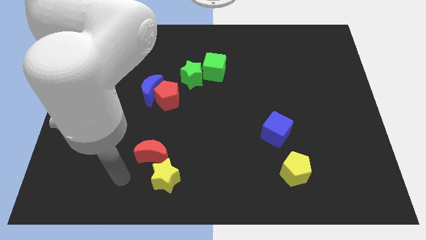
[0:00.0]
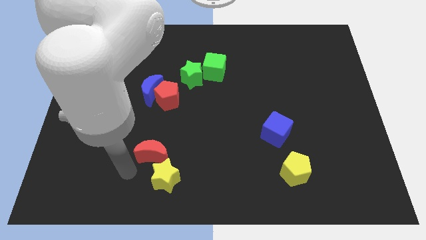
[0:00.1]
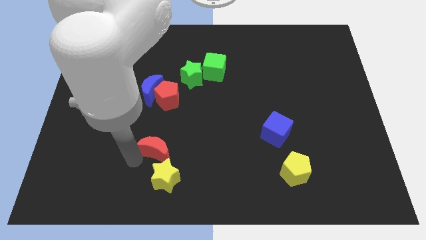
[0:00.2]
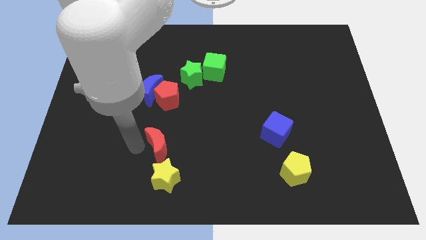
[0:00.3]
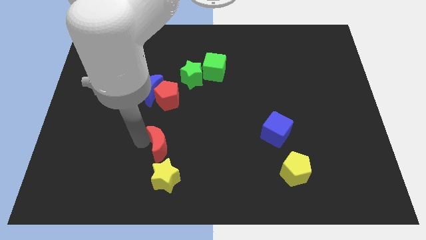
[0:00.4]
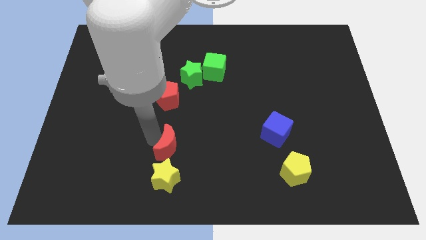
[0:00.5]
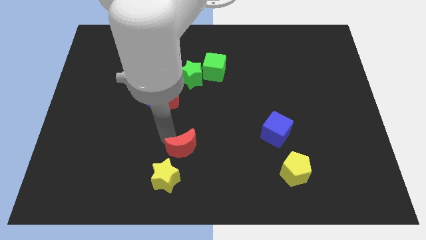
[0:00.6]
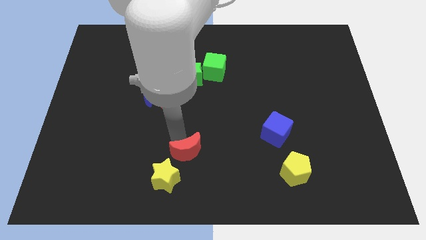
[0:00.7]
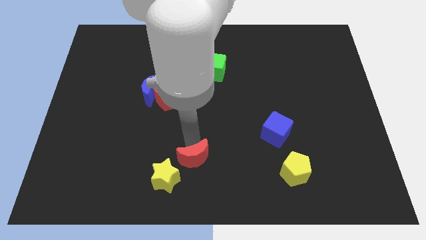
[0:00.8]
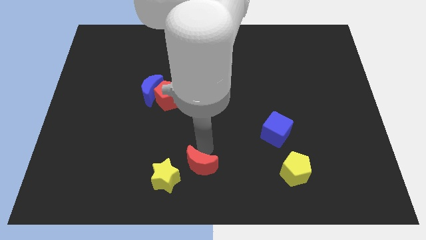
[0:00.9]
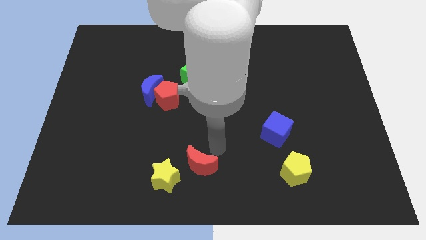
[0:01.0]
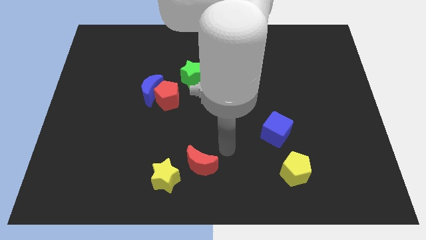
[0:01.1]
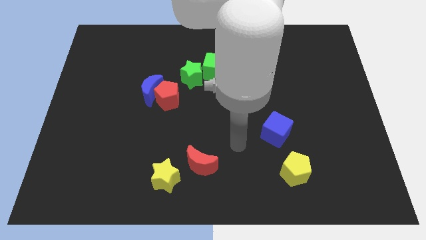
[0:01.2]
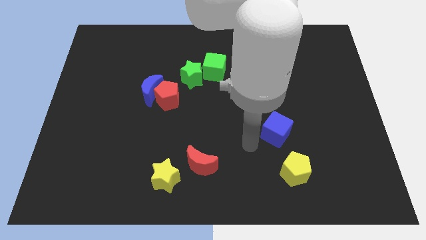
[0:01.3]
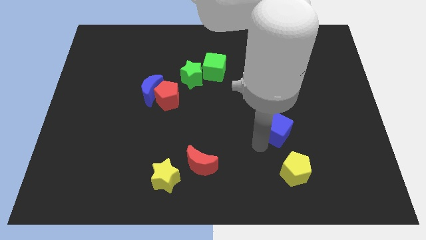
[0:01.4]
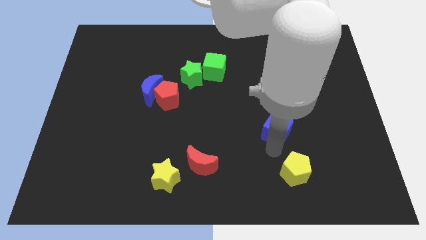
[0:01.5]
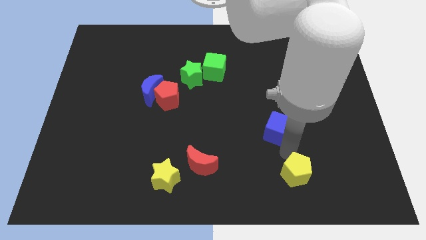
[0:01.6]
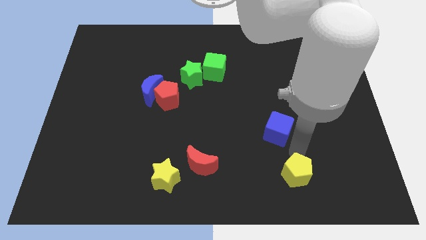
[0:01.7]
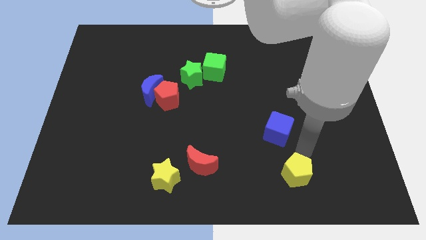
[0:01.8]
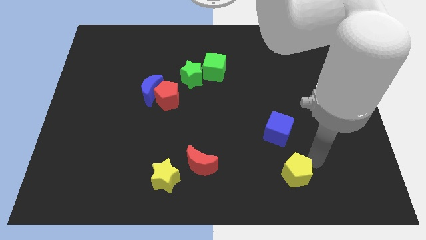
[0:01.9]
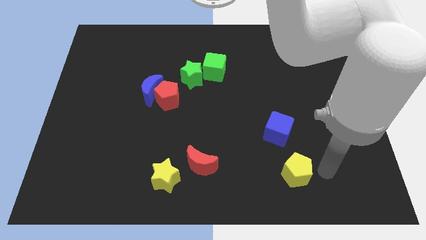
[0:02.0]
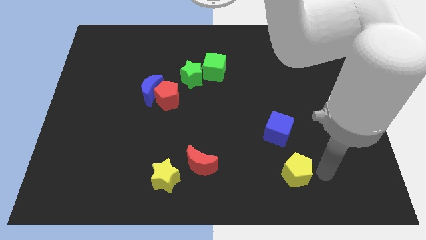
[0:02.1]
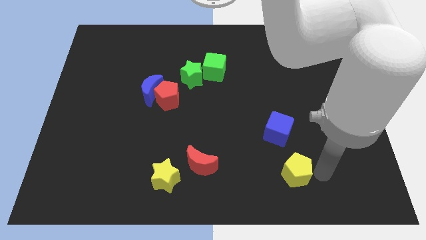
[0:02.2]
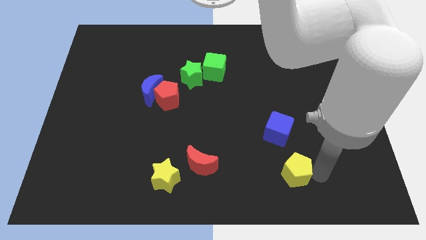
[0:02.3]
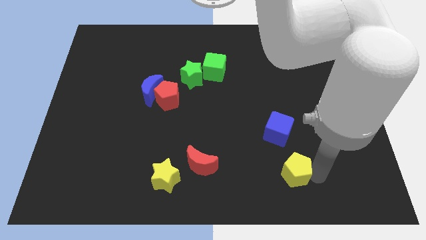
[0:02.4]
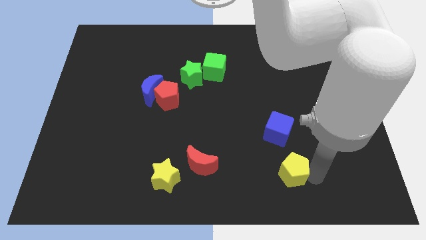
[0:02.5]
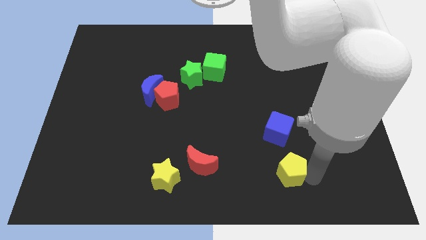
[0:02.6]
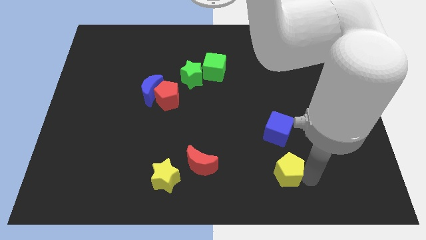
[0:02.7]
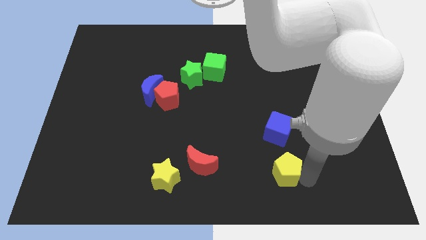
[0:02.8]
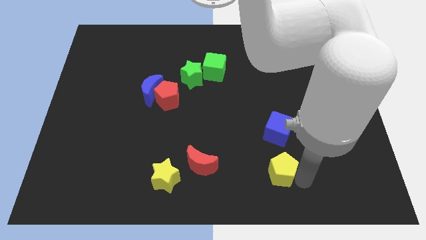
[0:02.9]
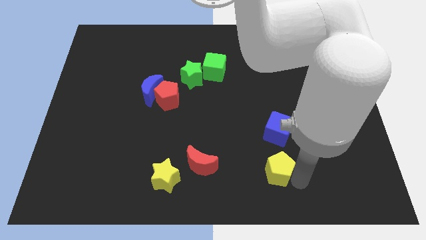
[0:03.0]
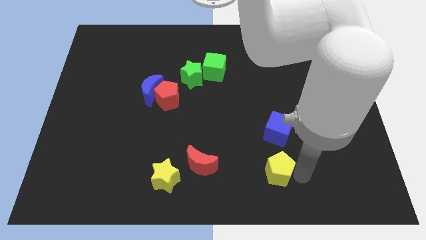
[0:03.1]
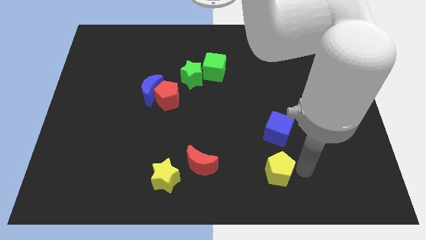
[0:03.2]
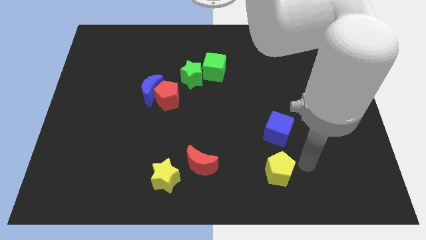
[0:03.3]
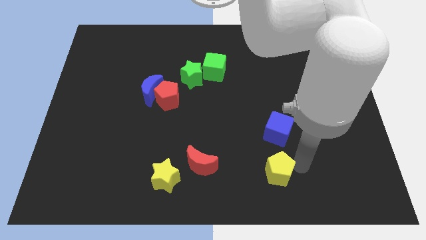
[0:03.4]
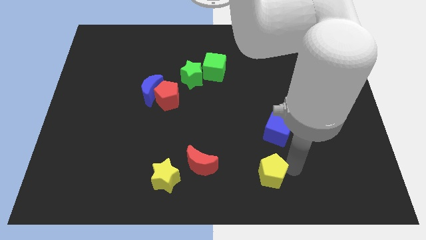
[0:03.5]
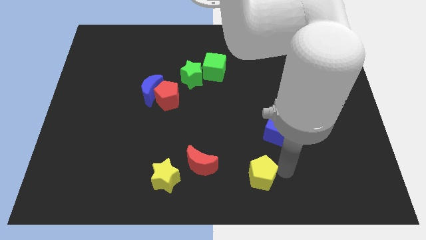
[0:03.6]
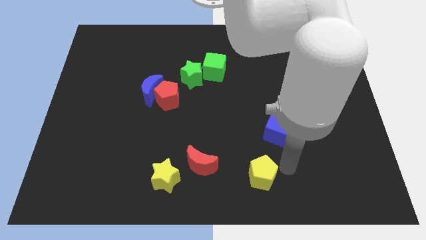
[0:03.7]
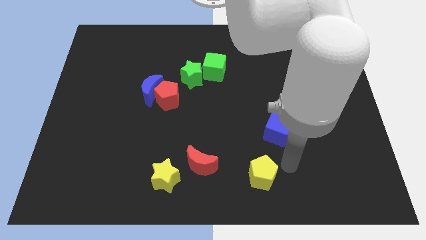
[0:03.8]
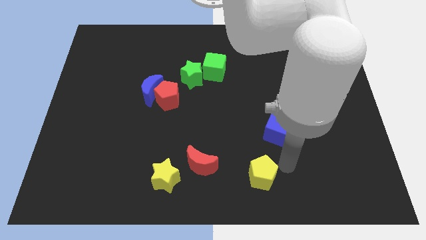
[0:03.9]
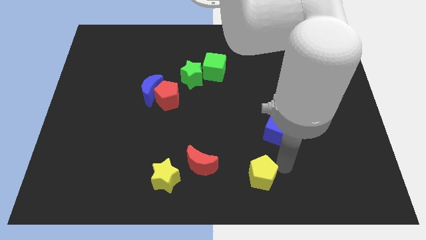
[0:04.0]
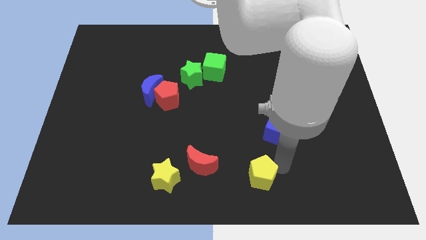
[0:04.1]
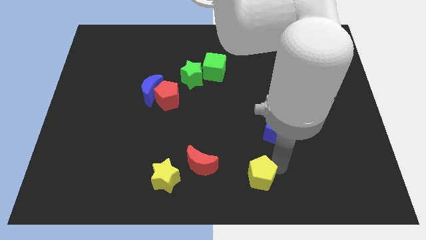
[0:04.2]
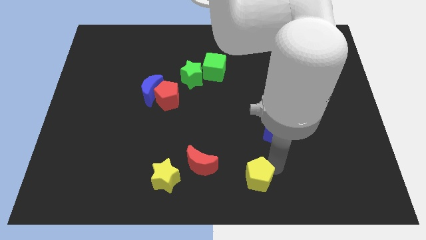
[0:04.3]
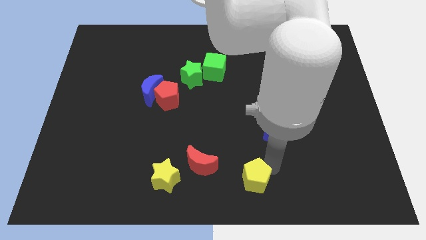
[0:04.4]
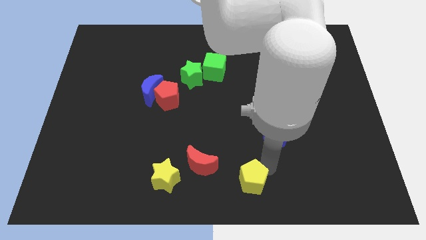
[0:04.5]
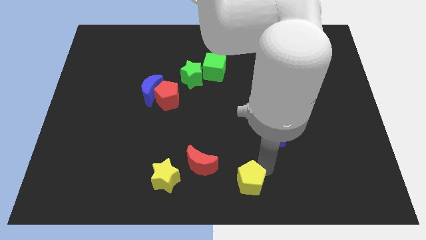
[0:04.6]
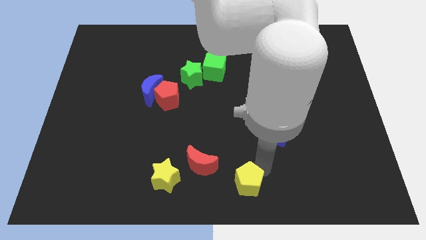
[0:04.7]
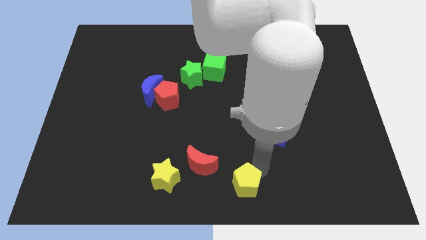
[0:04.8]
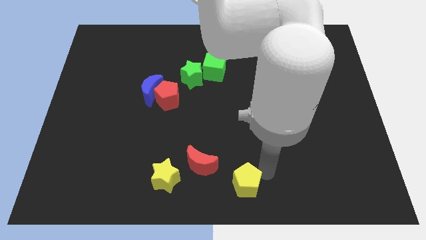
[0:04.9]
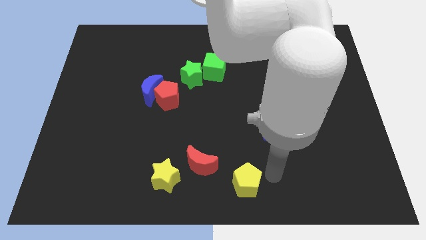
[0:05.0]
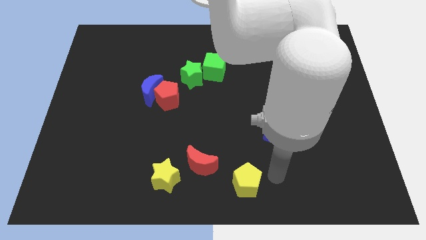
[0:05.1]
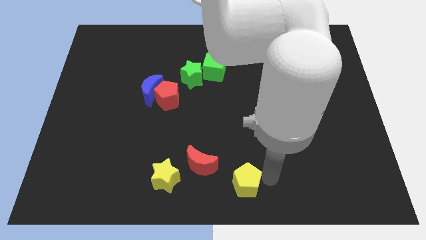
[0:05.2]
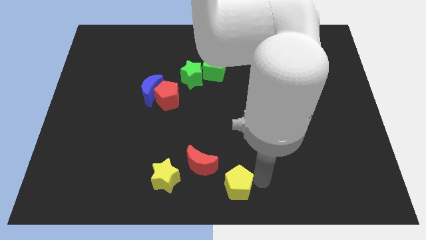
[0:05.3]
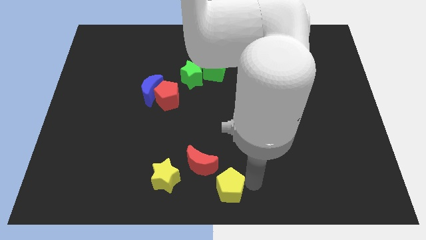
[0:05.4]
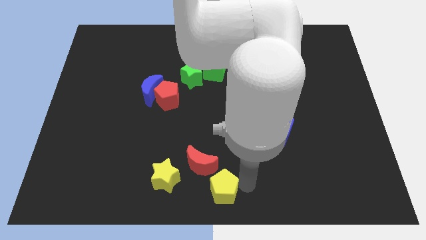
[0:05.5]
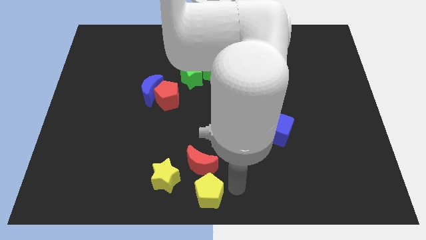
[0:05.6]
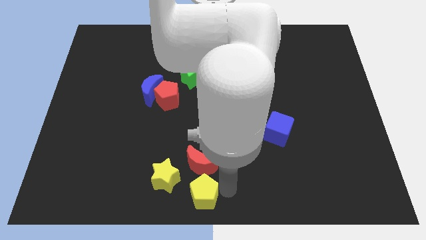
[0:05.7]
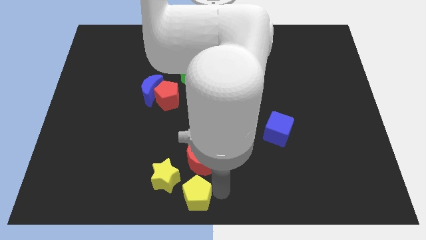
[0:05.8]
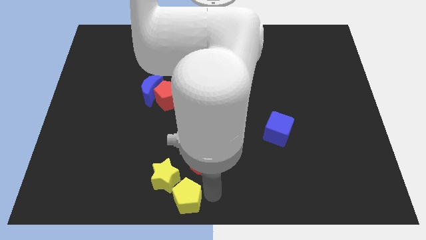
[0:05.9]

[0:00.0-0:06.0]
push the yellow pentagon to the left

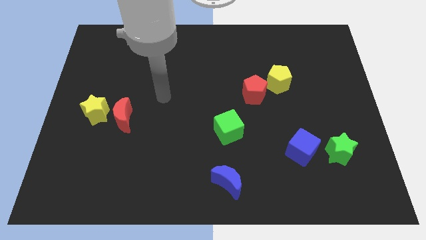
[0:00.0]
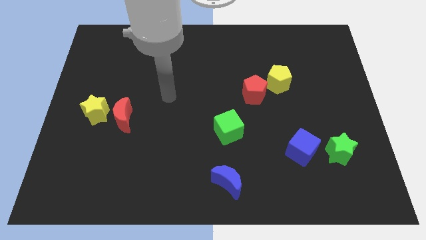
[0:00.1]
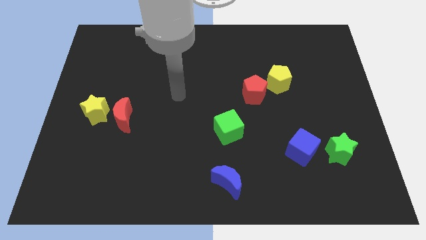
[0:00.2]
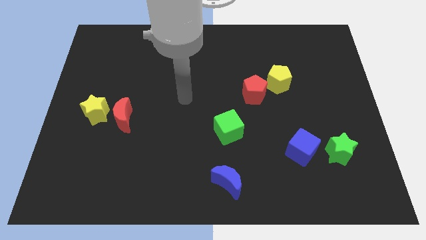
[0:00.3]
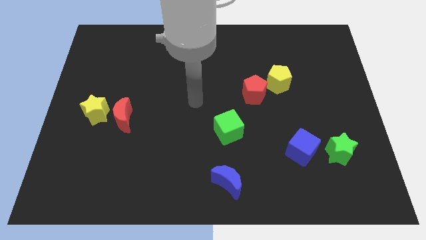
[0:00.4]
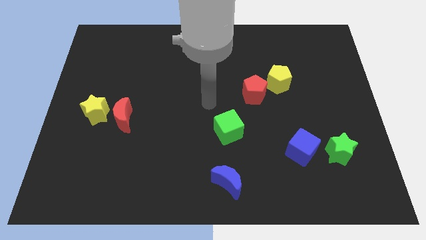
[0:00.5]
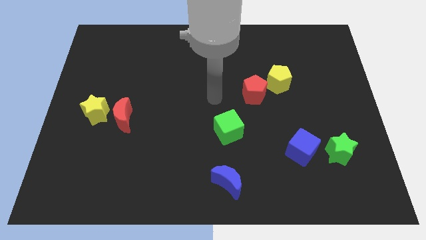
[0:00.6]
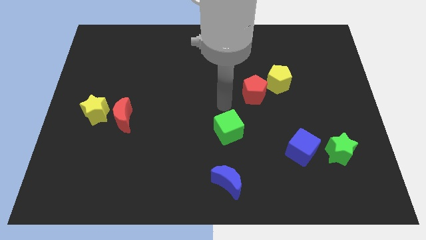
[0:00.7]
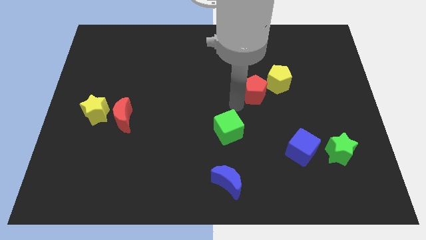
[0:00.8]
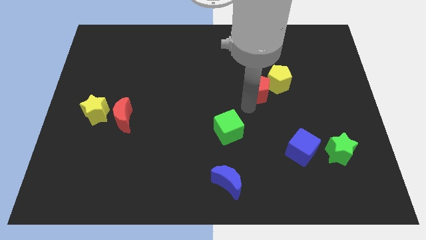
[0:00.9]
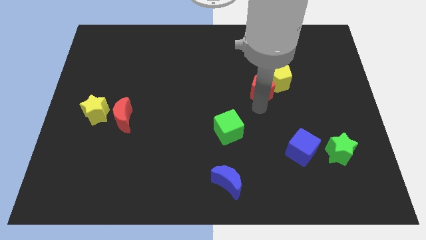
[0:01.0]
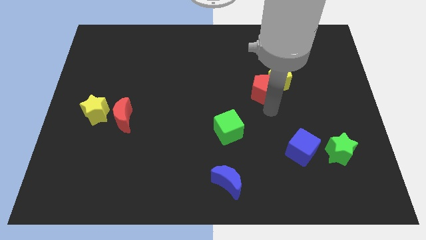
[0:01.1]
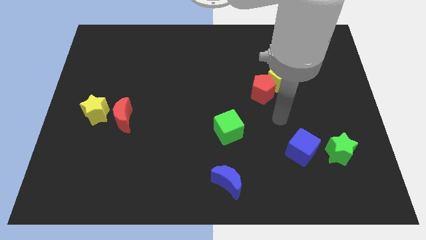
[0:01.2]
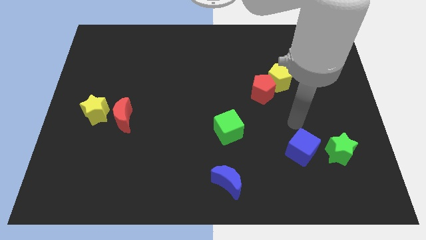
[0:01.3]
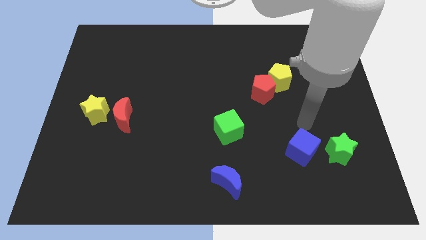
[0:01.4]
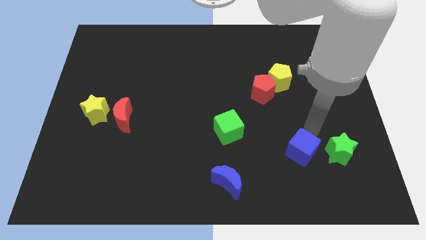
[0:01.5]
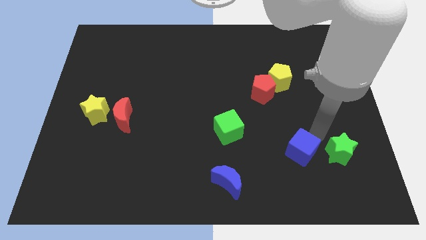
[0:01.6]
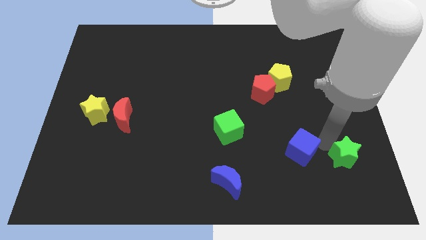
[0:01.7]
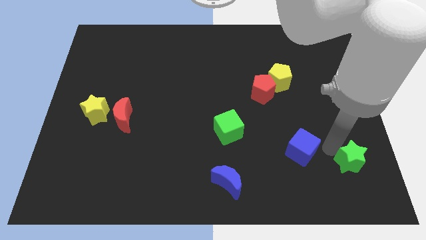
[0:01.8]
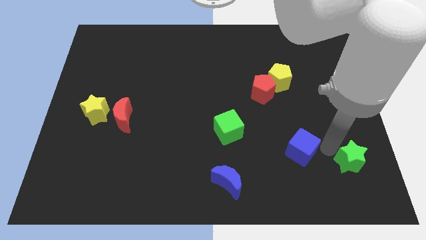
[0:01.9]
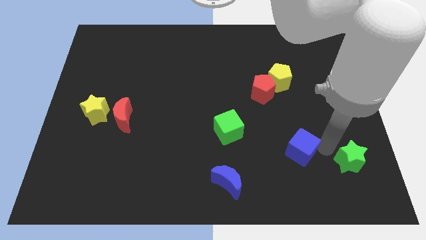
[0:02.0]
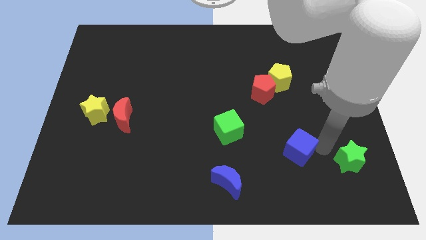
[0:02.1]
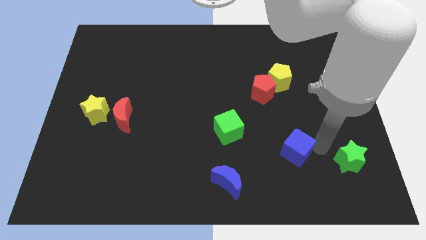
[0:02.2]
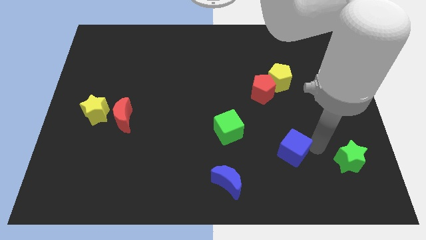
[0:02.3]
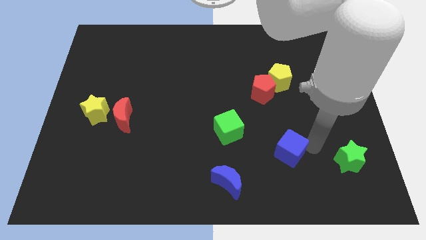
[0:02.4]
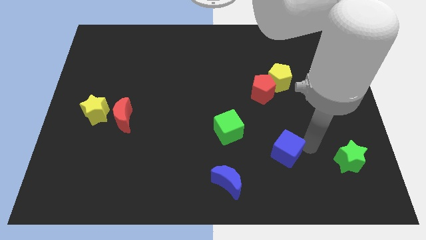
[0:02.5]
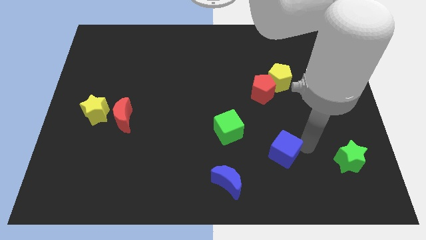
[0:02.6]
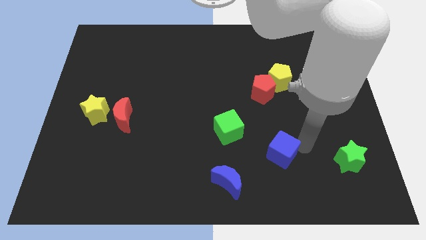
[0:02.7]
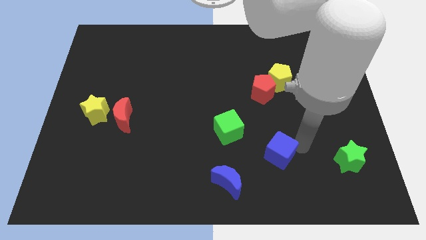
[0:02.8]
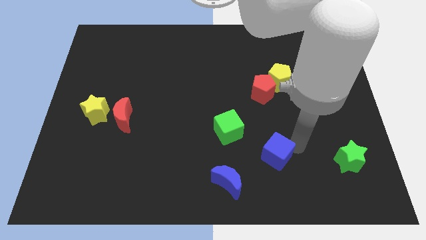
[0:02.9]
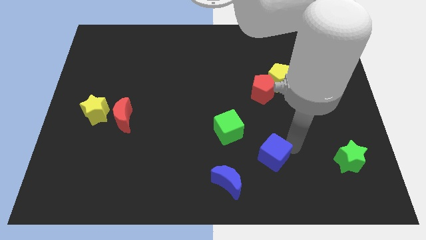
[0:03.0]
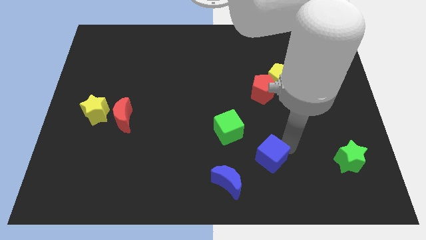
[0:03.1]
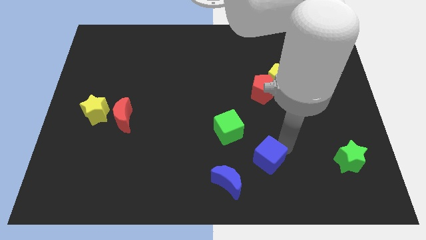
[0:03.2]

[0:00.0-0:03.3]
move the blue cube a little to the left
